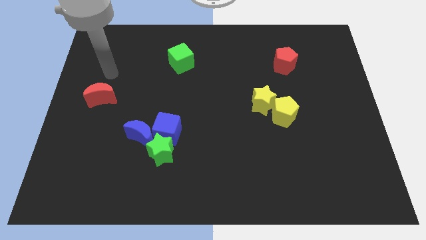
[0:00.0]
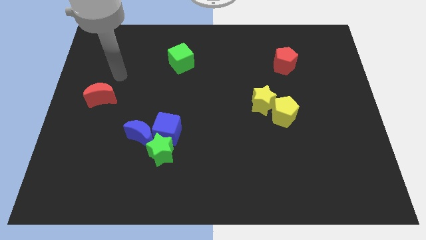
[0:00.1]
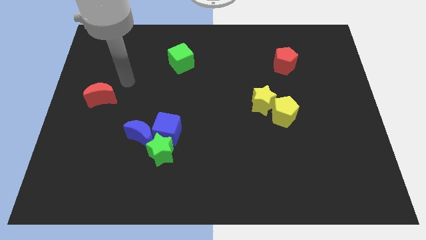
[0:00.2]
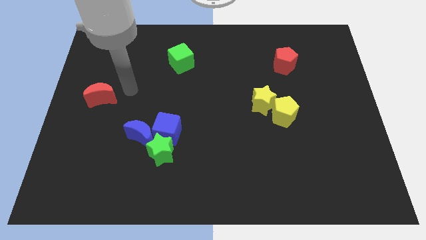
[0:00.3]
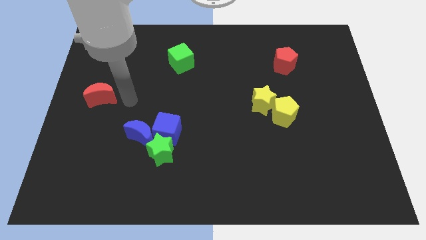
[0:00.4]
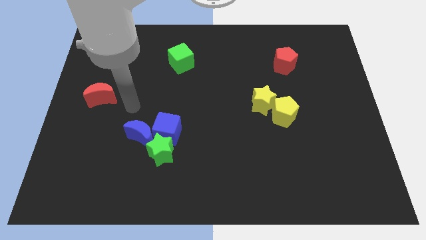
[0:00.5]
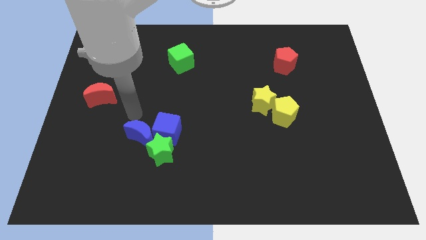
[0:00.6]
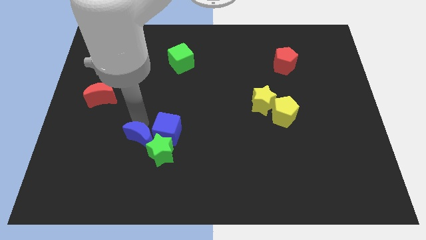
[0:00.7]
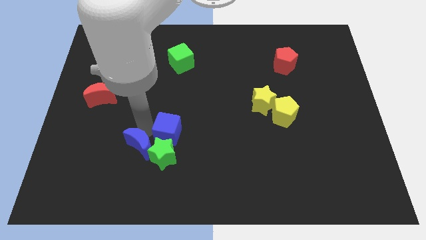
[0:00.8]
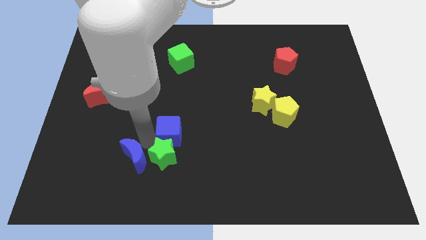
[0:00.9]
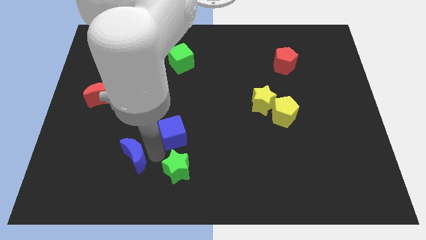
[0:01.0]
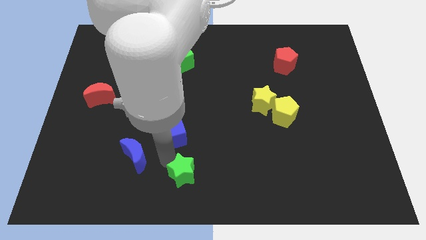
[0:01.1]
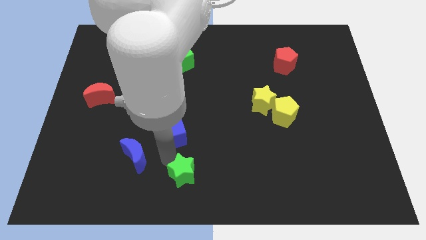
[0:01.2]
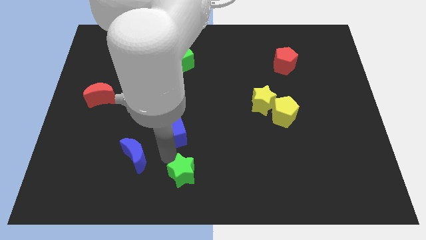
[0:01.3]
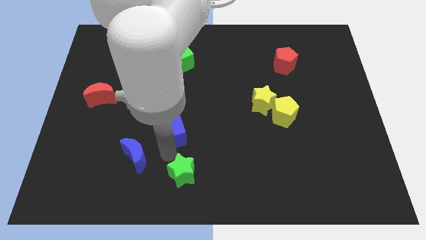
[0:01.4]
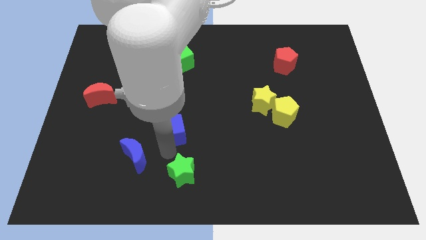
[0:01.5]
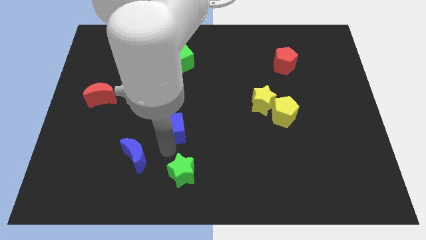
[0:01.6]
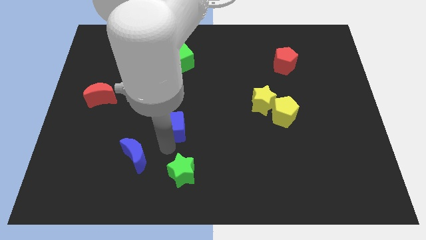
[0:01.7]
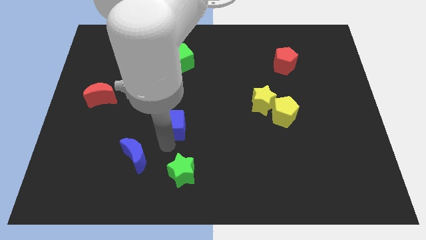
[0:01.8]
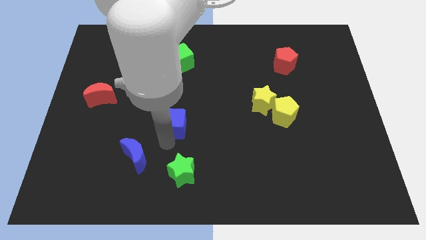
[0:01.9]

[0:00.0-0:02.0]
separate the blue cube from the green star and blue moon

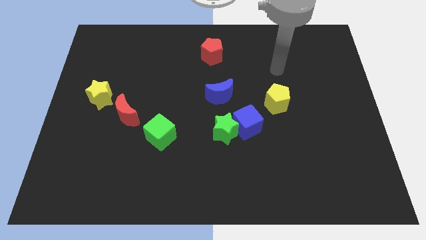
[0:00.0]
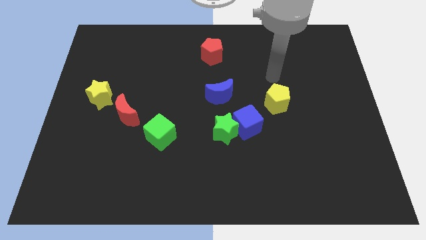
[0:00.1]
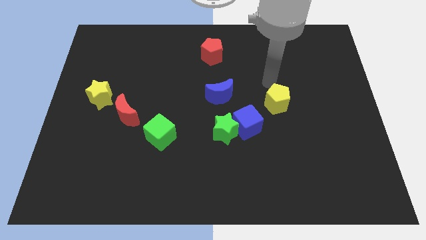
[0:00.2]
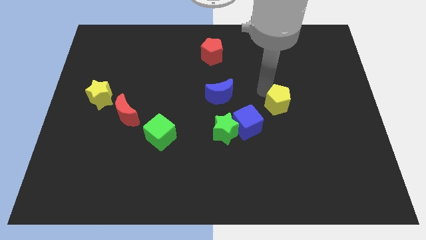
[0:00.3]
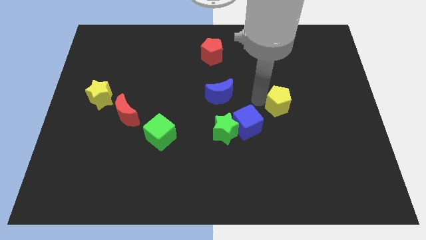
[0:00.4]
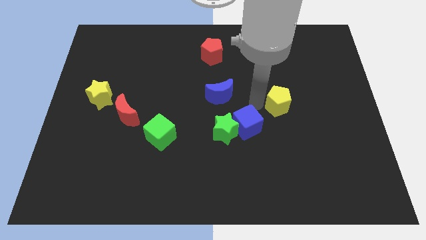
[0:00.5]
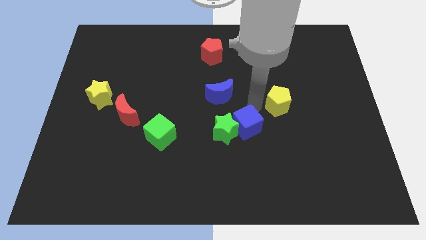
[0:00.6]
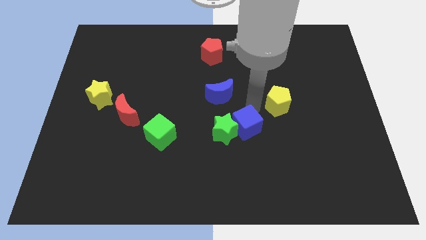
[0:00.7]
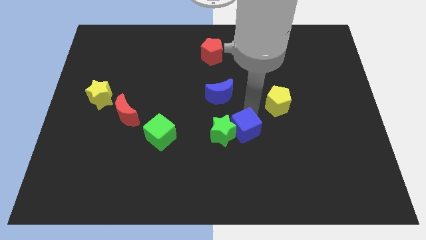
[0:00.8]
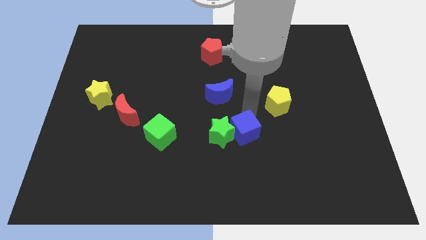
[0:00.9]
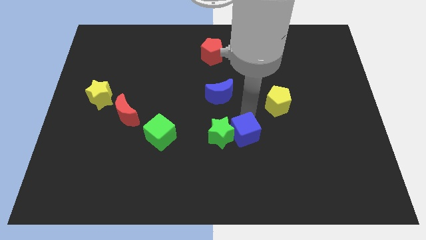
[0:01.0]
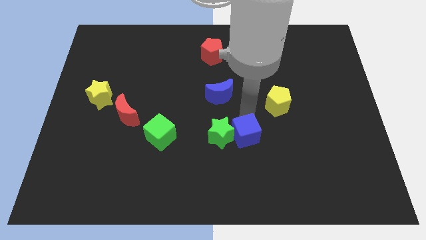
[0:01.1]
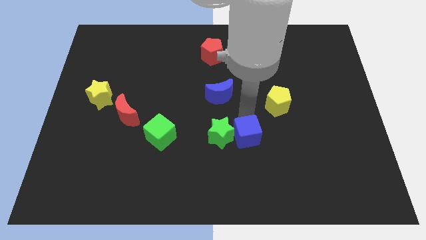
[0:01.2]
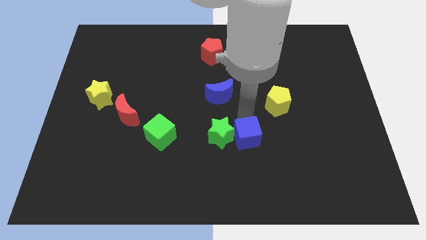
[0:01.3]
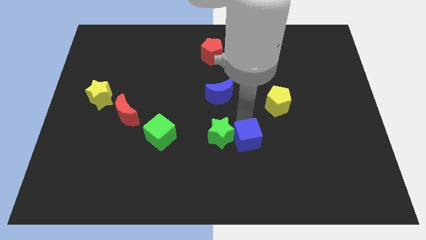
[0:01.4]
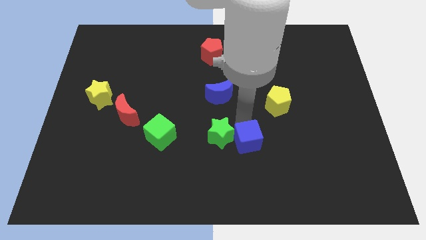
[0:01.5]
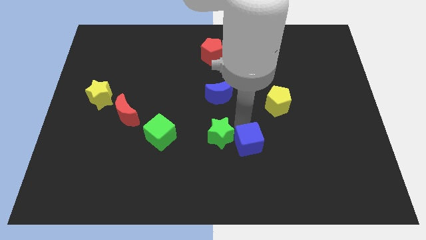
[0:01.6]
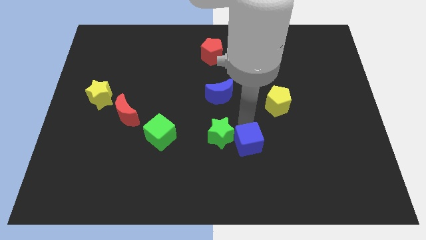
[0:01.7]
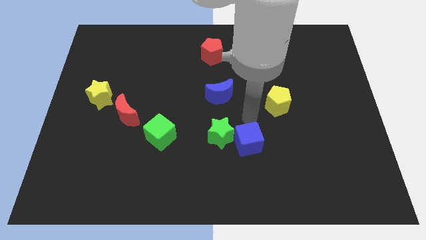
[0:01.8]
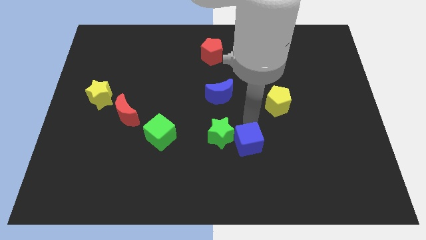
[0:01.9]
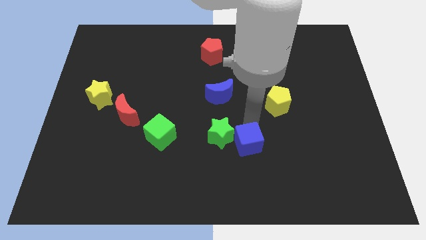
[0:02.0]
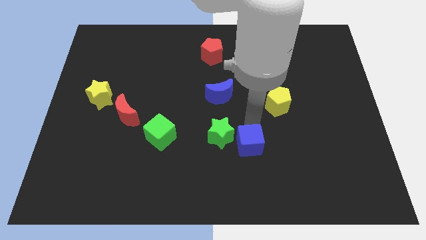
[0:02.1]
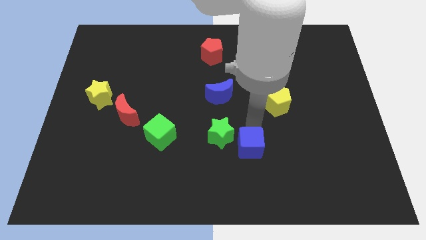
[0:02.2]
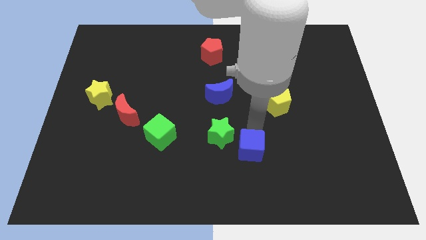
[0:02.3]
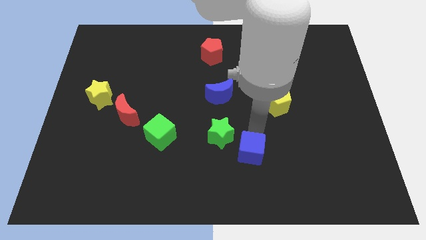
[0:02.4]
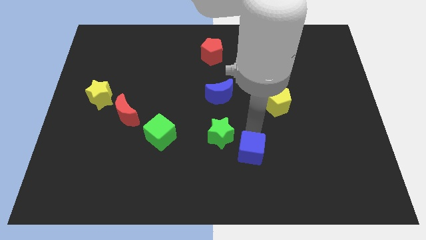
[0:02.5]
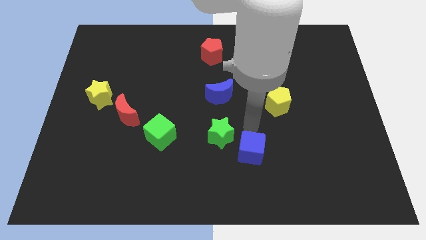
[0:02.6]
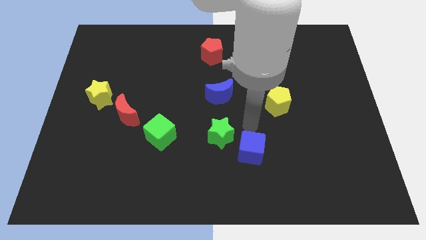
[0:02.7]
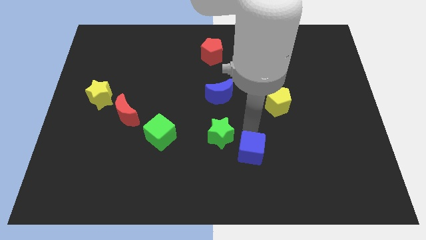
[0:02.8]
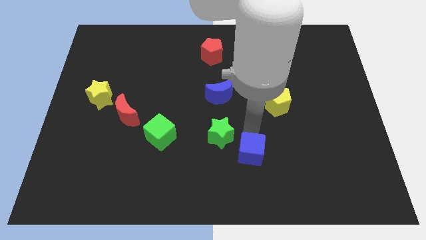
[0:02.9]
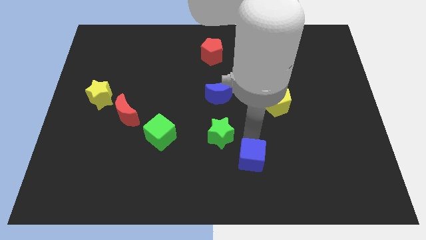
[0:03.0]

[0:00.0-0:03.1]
pull the blue cube apart from the green star and yellow pentagon

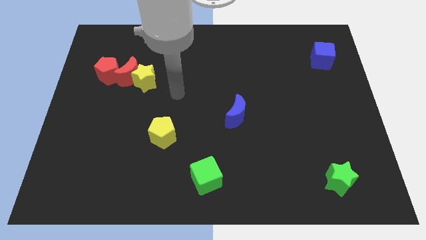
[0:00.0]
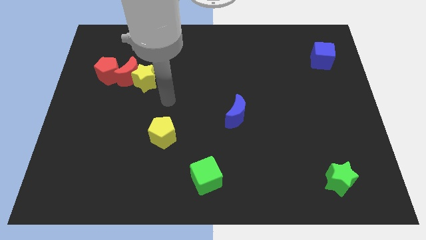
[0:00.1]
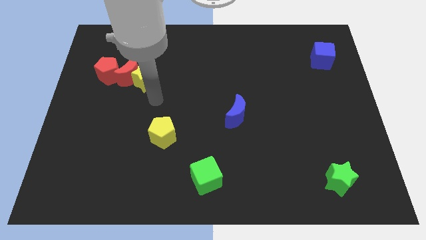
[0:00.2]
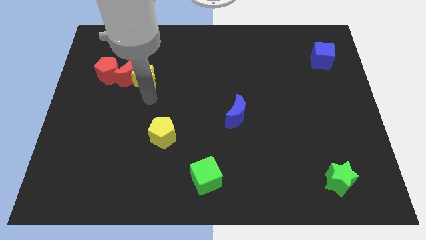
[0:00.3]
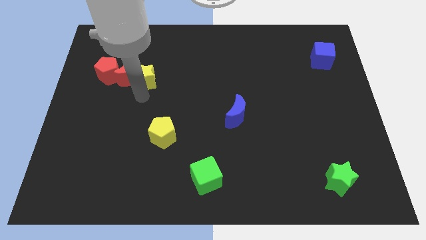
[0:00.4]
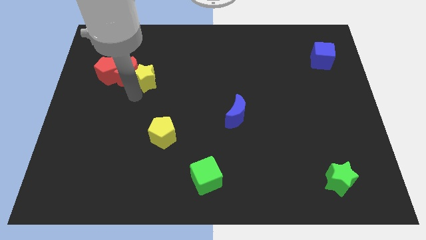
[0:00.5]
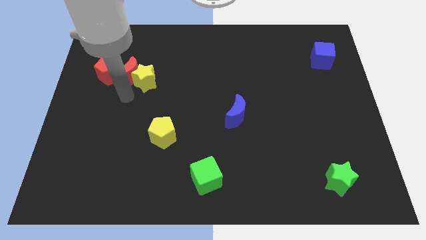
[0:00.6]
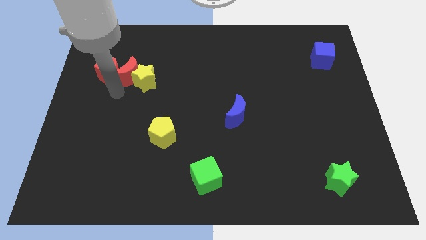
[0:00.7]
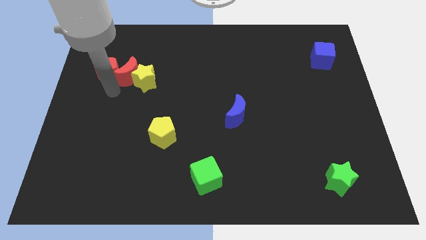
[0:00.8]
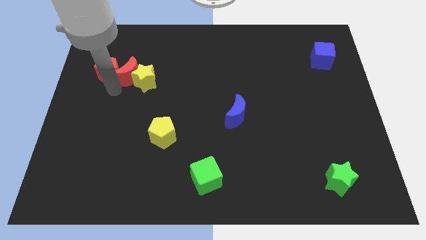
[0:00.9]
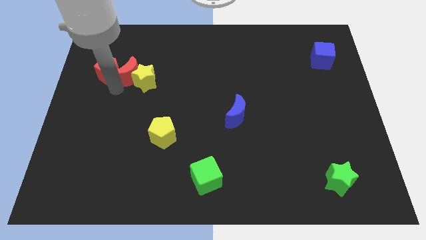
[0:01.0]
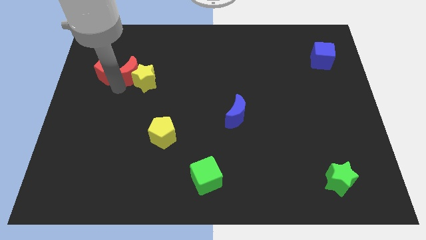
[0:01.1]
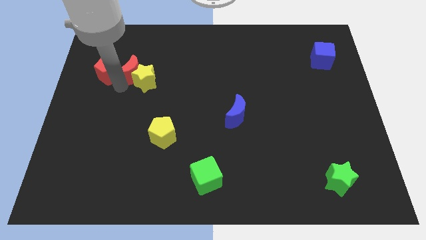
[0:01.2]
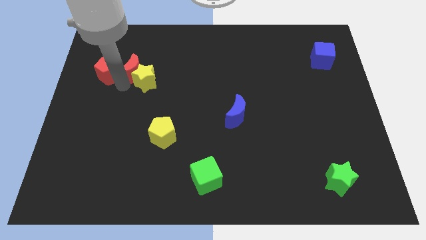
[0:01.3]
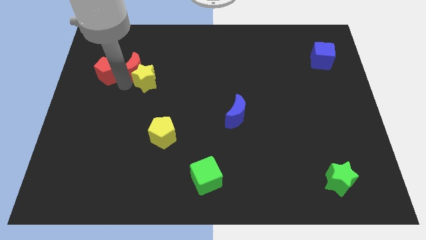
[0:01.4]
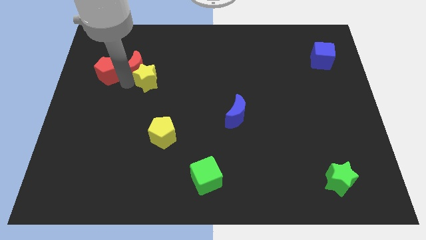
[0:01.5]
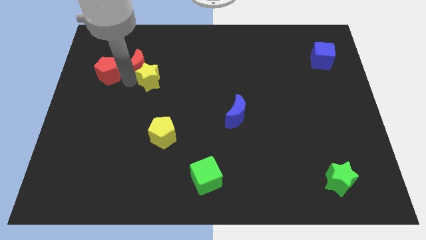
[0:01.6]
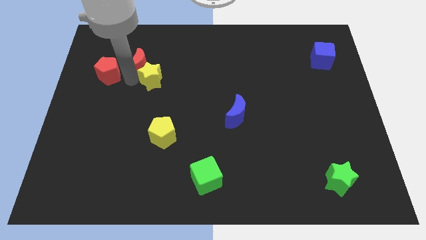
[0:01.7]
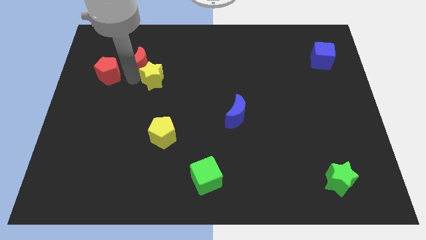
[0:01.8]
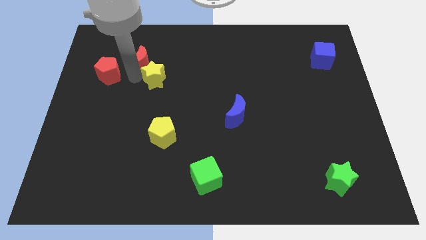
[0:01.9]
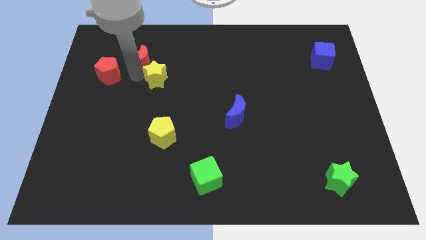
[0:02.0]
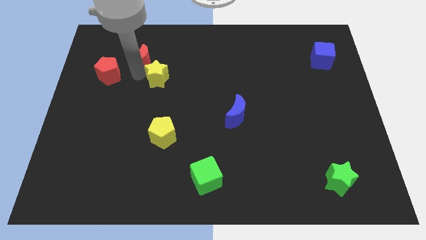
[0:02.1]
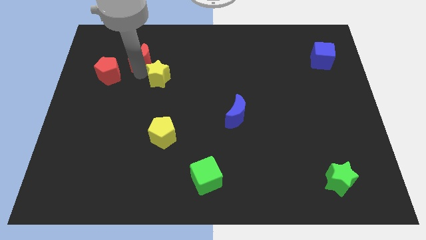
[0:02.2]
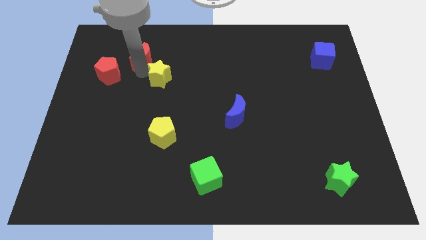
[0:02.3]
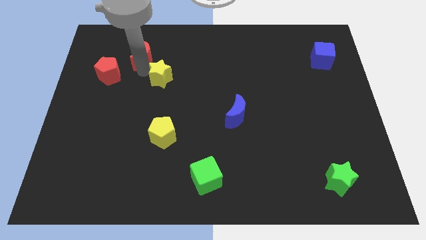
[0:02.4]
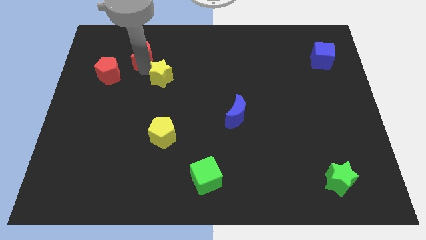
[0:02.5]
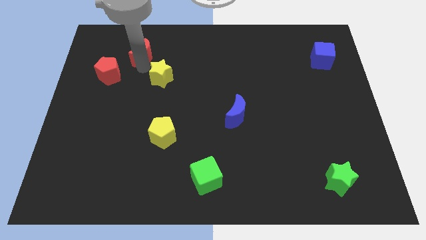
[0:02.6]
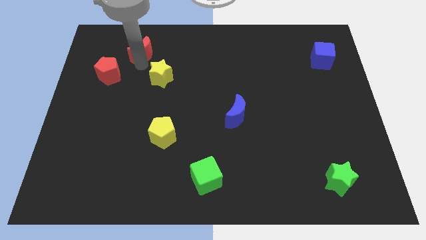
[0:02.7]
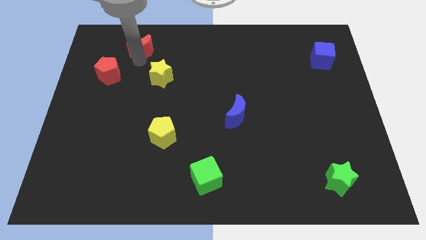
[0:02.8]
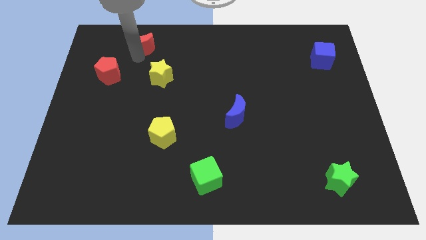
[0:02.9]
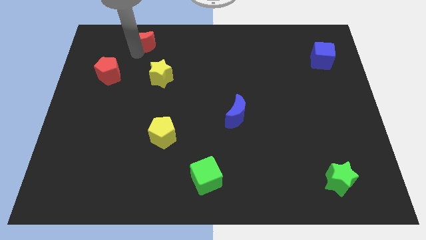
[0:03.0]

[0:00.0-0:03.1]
pull the red moon apart from the yellow star and red pentagon

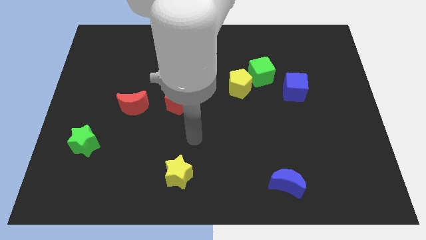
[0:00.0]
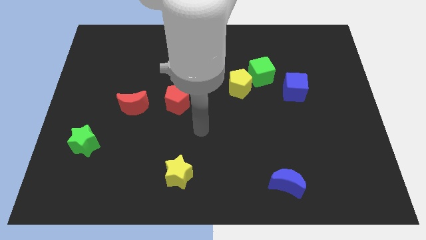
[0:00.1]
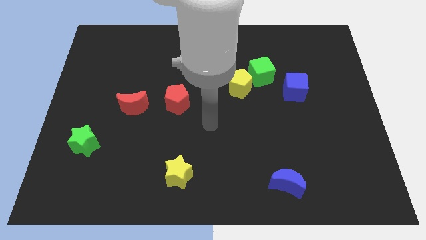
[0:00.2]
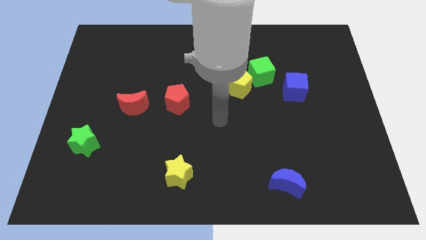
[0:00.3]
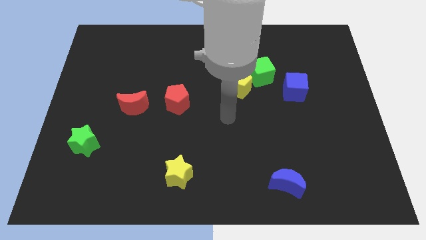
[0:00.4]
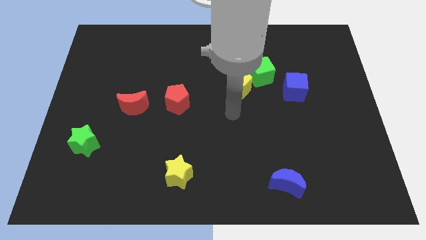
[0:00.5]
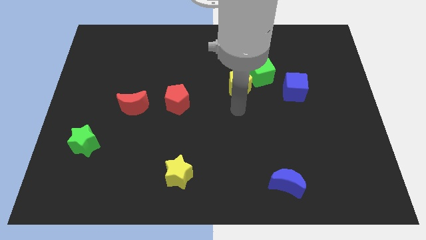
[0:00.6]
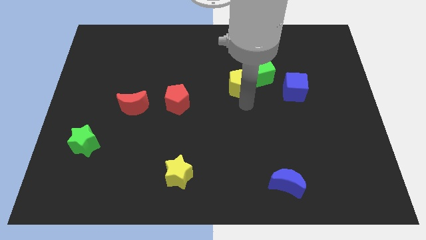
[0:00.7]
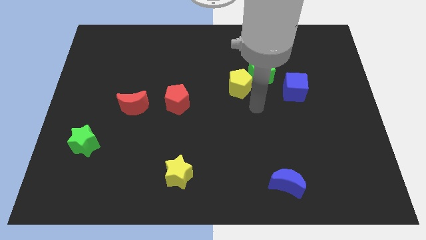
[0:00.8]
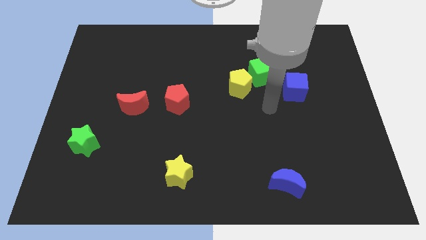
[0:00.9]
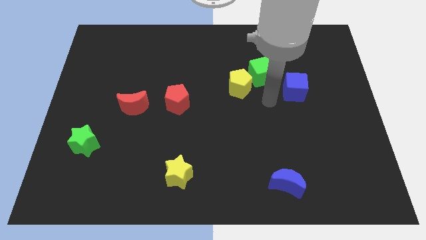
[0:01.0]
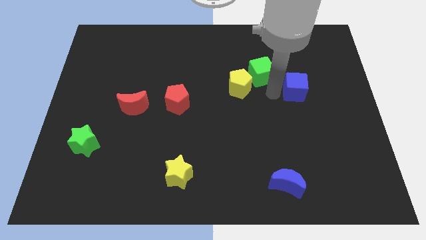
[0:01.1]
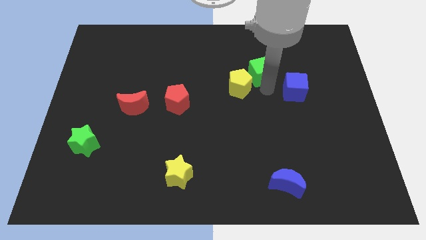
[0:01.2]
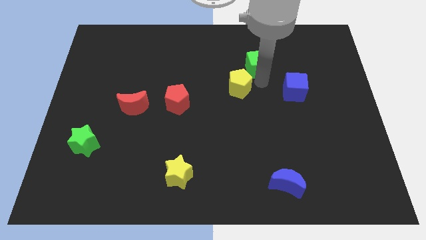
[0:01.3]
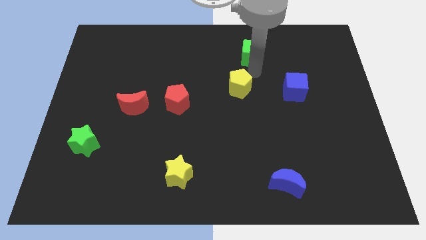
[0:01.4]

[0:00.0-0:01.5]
move the yellow pentagon away from the green cube
